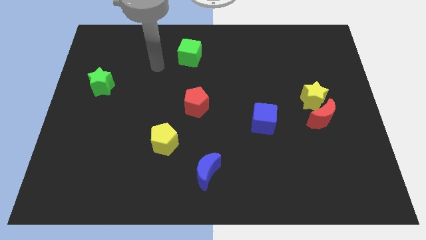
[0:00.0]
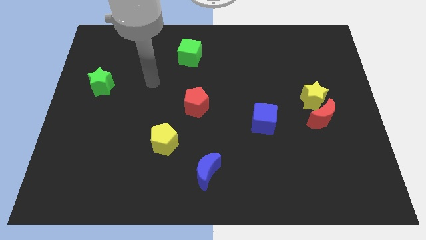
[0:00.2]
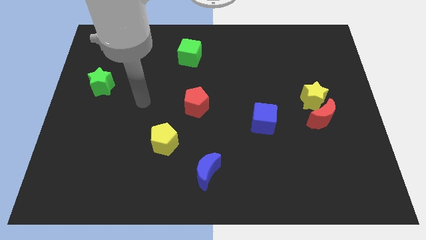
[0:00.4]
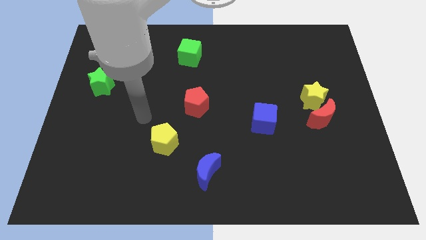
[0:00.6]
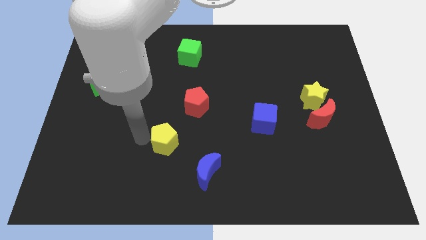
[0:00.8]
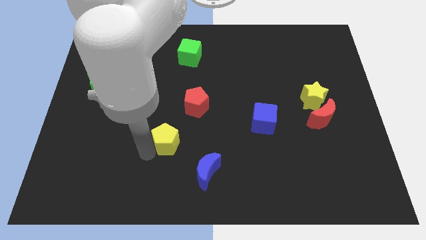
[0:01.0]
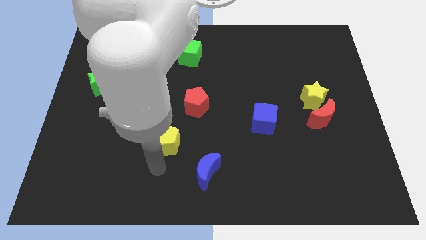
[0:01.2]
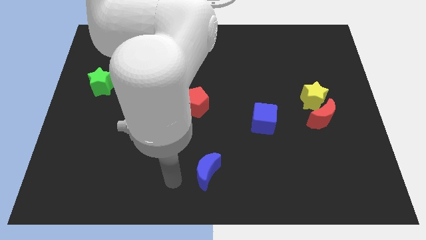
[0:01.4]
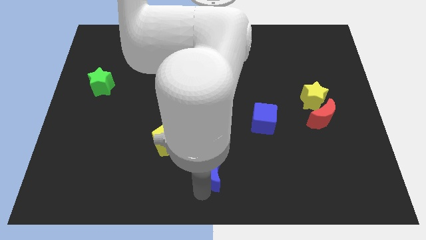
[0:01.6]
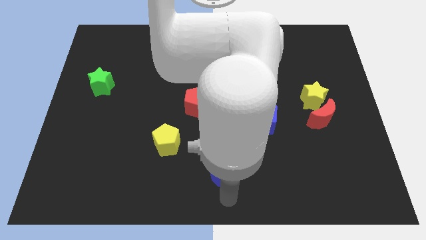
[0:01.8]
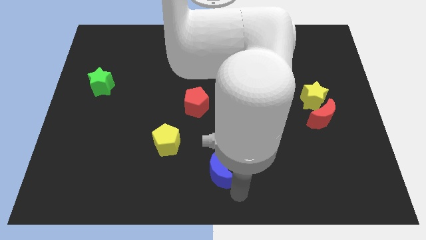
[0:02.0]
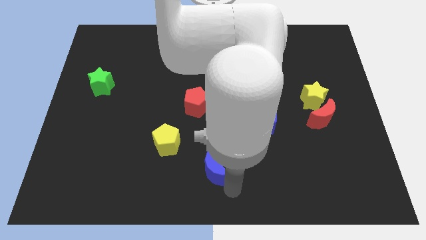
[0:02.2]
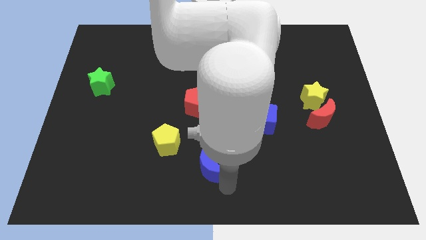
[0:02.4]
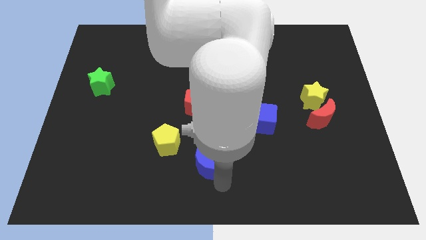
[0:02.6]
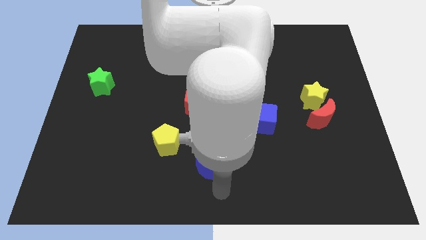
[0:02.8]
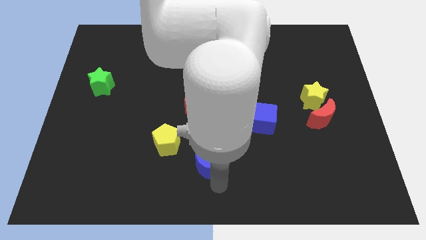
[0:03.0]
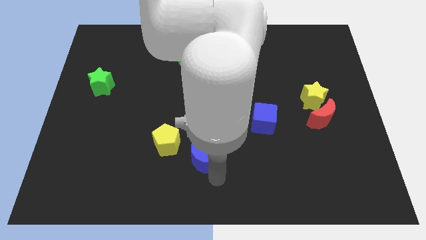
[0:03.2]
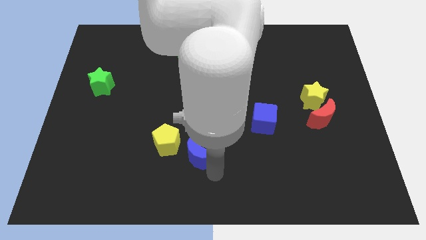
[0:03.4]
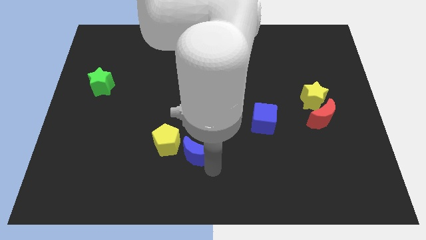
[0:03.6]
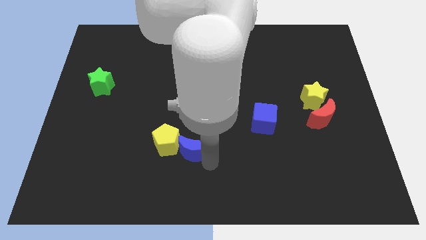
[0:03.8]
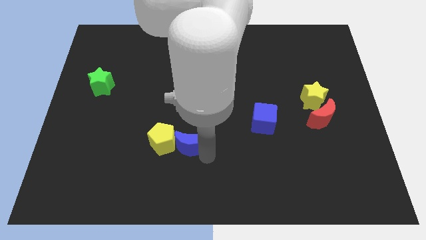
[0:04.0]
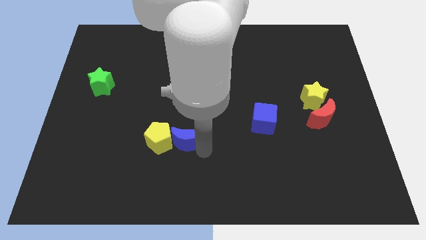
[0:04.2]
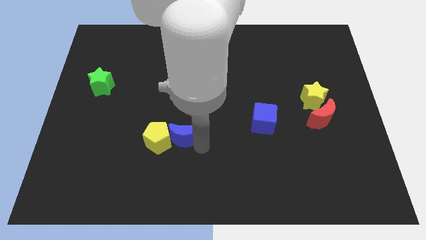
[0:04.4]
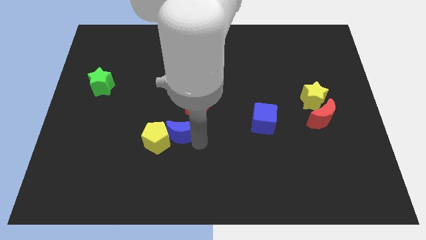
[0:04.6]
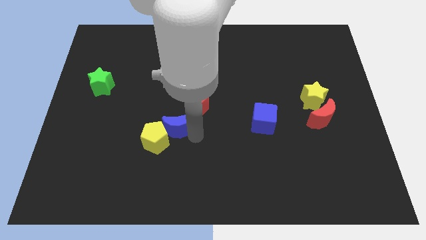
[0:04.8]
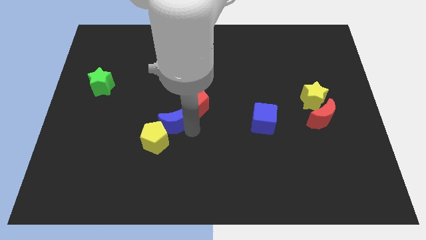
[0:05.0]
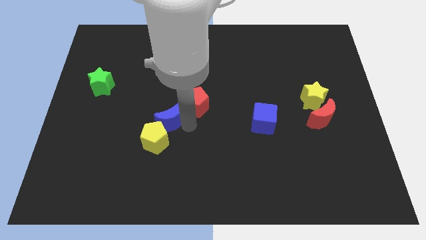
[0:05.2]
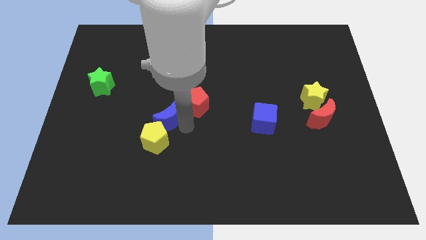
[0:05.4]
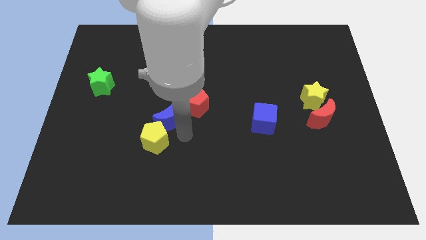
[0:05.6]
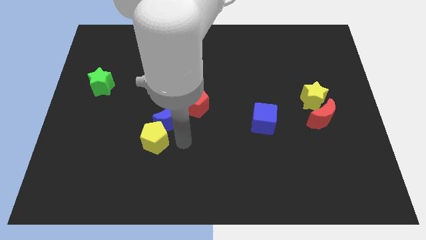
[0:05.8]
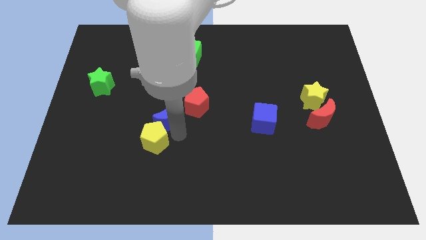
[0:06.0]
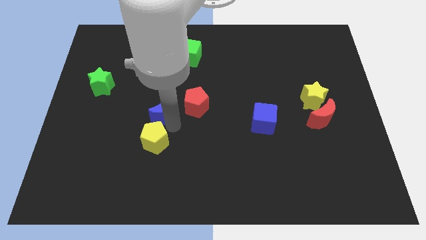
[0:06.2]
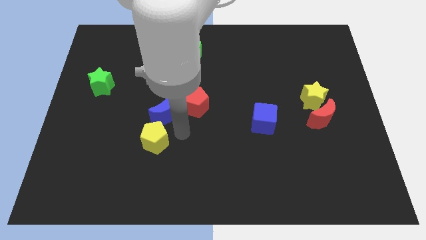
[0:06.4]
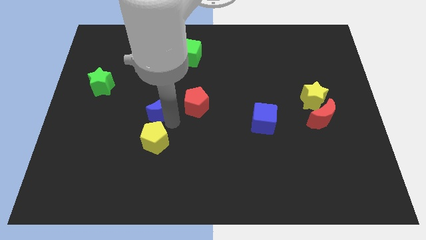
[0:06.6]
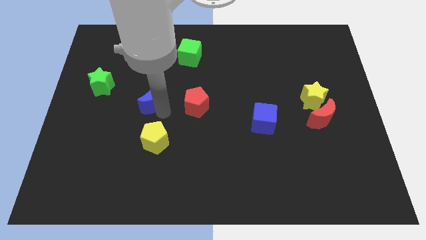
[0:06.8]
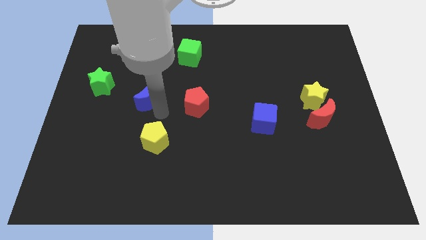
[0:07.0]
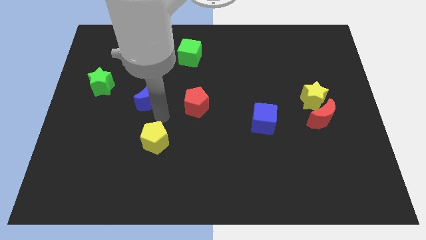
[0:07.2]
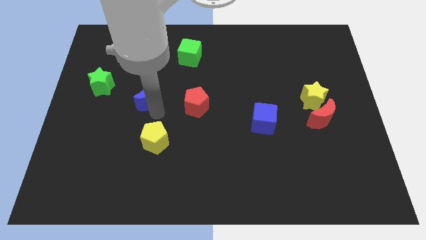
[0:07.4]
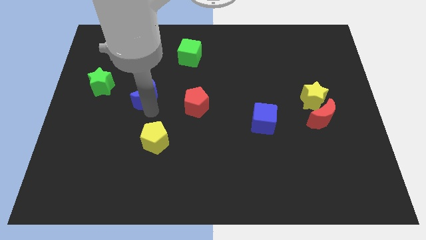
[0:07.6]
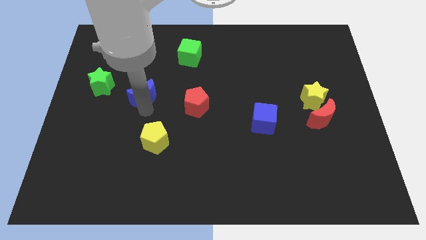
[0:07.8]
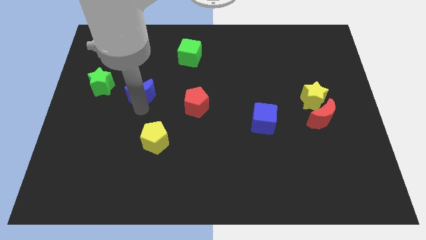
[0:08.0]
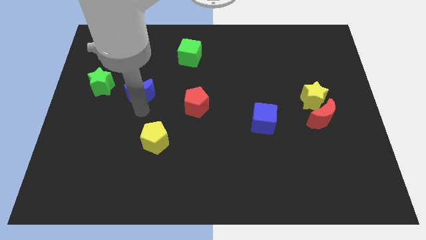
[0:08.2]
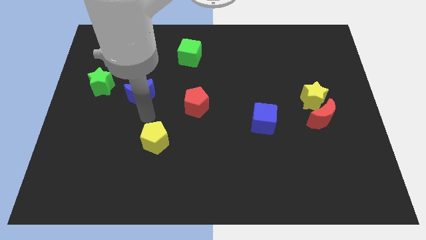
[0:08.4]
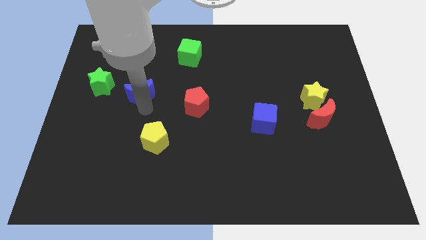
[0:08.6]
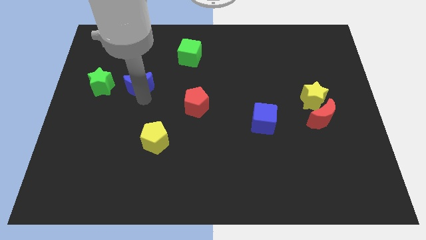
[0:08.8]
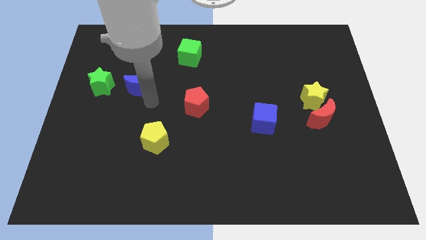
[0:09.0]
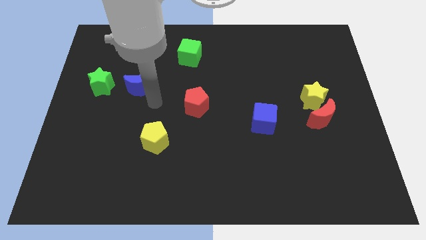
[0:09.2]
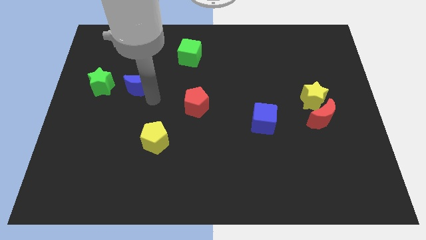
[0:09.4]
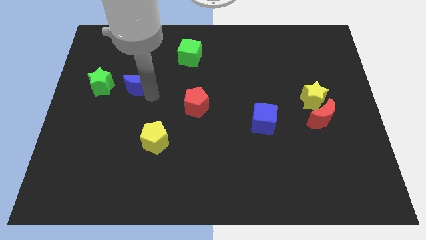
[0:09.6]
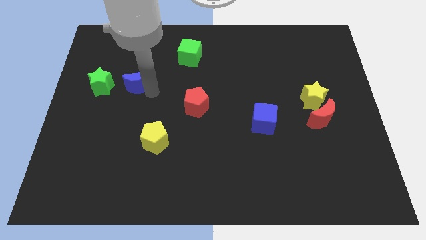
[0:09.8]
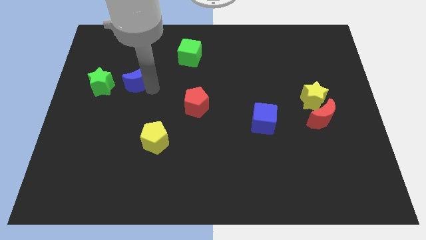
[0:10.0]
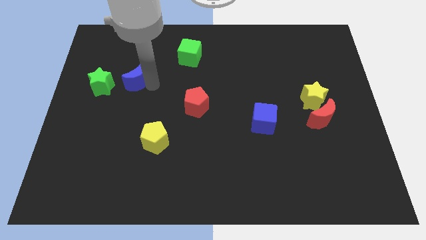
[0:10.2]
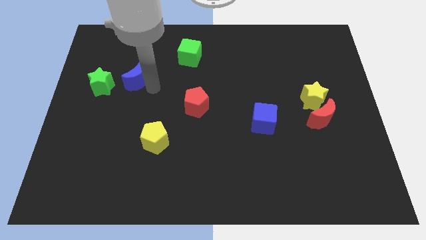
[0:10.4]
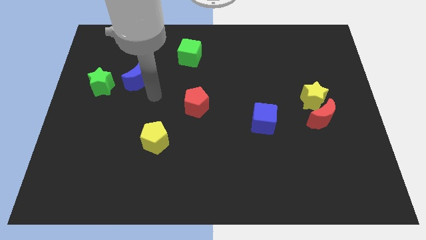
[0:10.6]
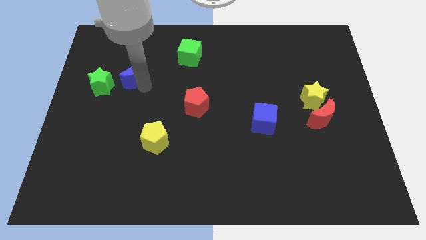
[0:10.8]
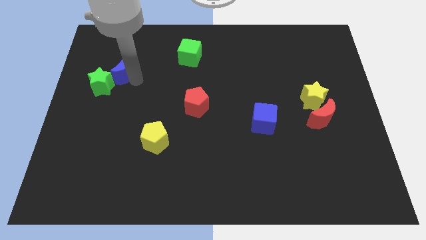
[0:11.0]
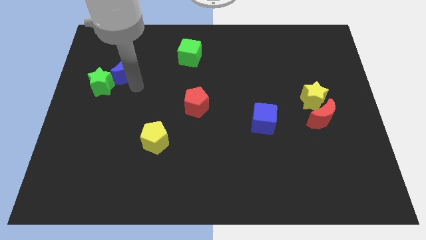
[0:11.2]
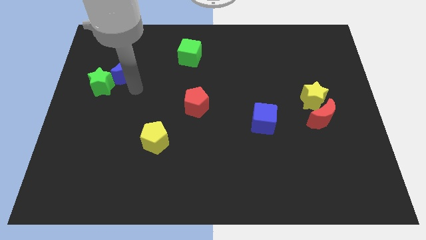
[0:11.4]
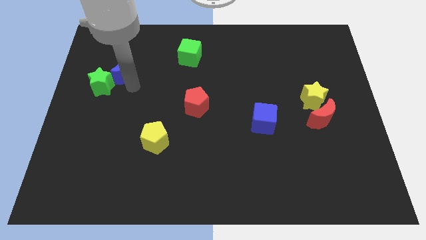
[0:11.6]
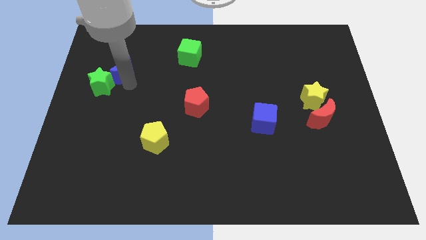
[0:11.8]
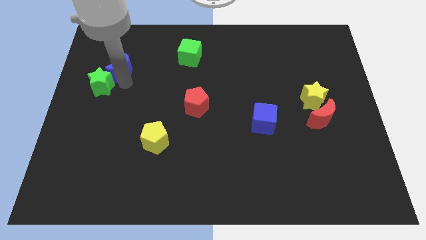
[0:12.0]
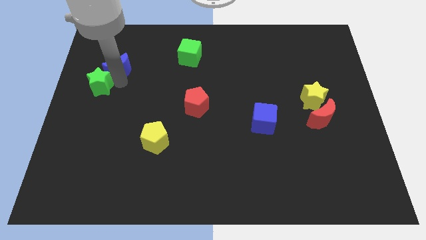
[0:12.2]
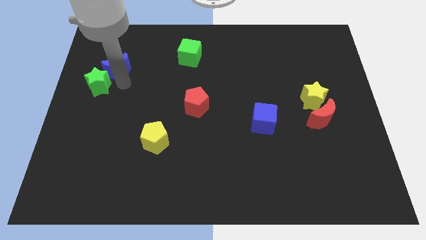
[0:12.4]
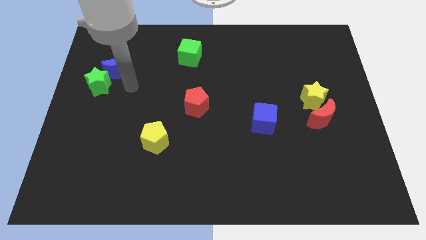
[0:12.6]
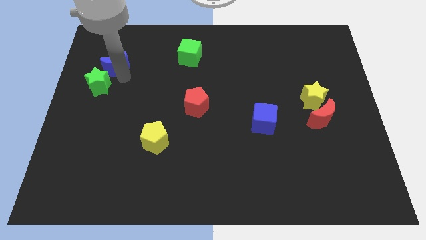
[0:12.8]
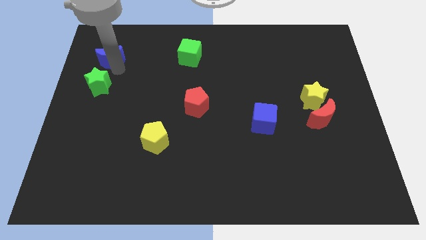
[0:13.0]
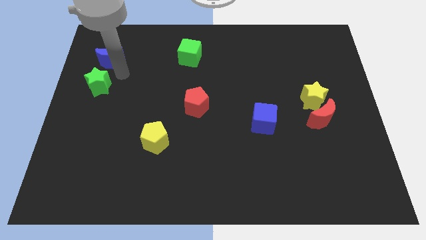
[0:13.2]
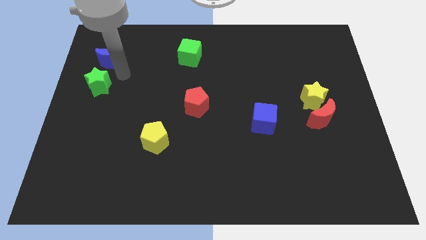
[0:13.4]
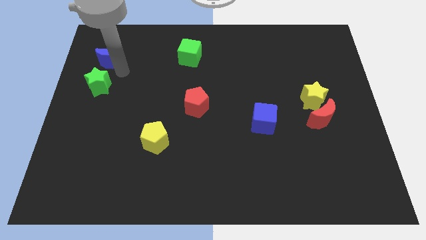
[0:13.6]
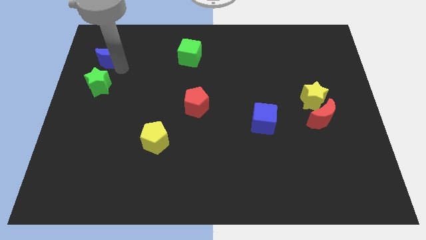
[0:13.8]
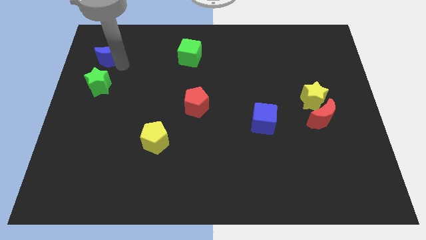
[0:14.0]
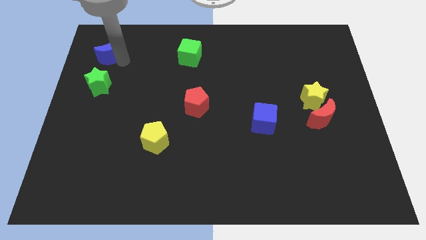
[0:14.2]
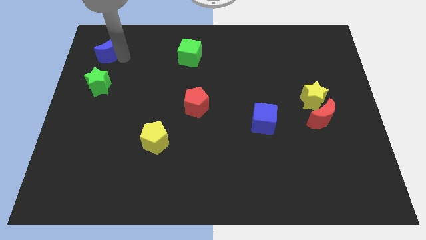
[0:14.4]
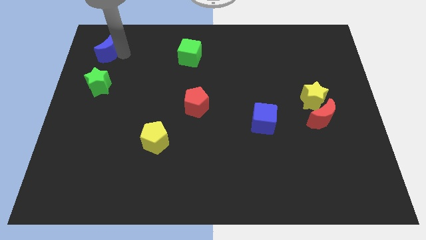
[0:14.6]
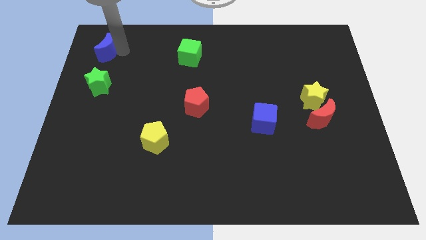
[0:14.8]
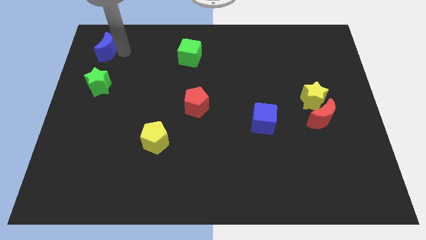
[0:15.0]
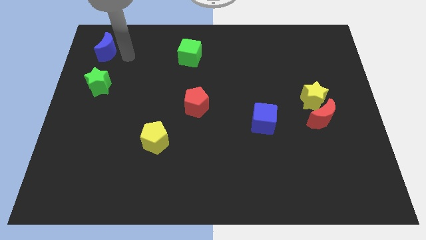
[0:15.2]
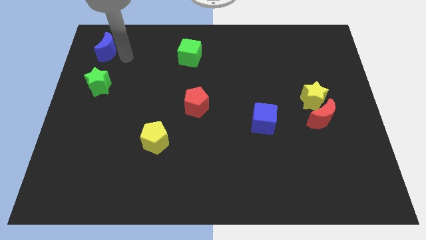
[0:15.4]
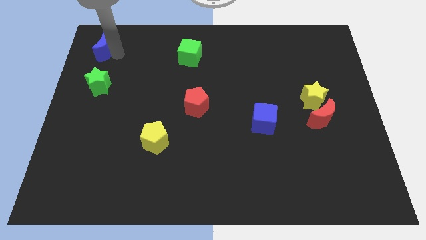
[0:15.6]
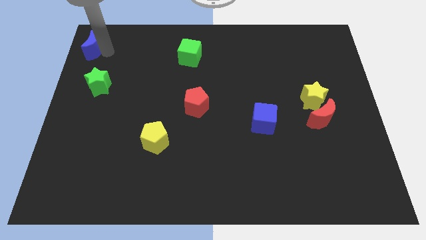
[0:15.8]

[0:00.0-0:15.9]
push the blue moon to the upper left corner
